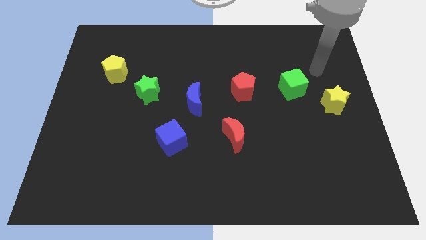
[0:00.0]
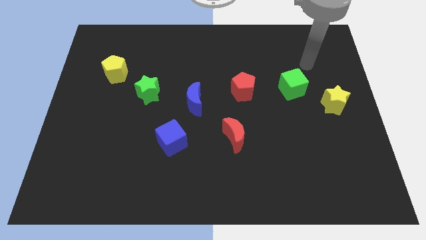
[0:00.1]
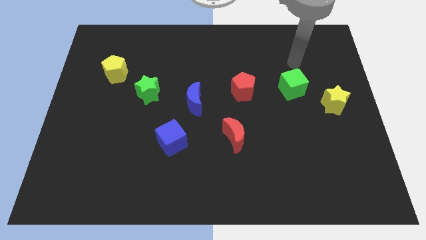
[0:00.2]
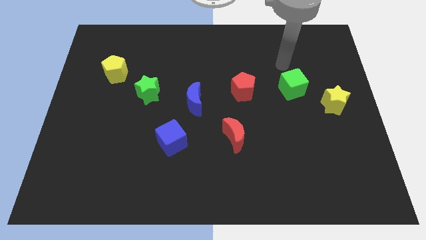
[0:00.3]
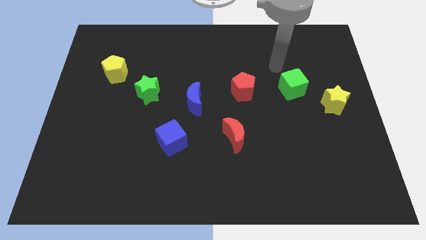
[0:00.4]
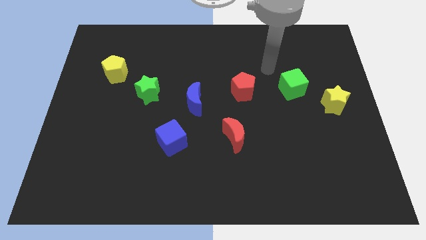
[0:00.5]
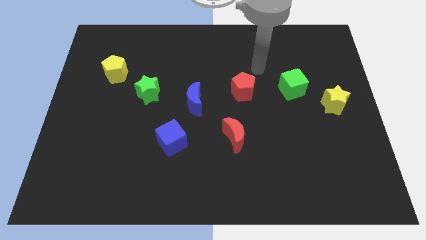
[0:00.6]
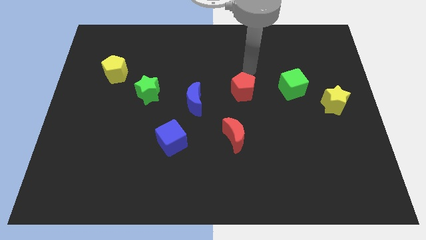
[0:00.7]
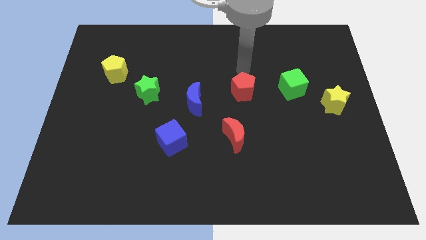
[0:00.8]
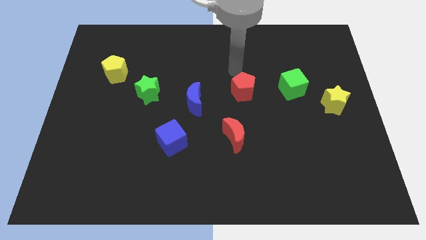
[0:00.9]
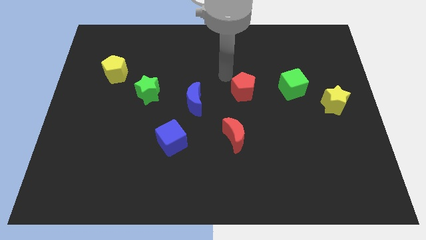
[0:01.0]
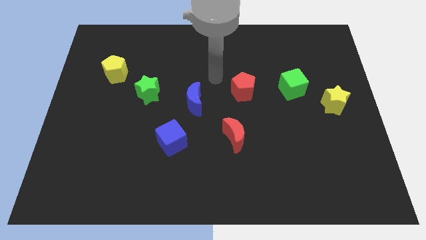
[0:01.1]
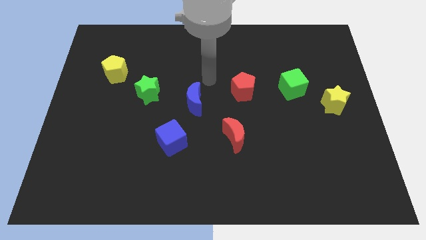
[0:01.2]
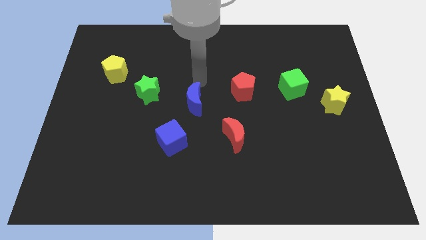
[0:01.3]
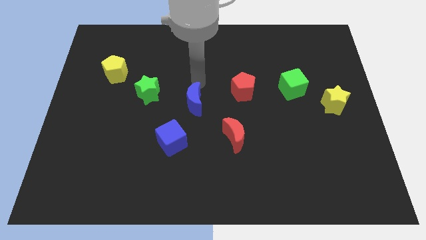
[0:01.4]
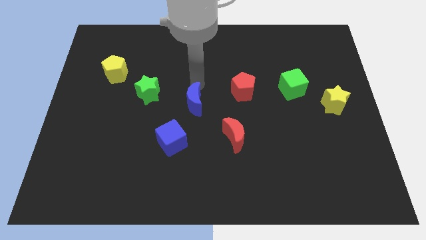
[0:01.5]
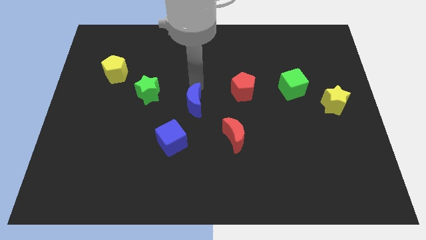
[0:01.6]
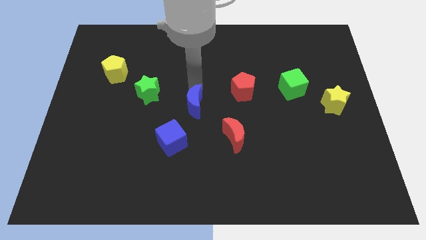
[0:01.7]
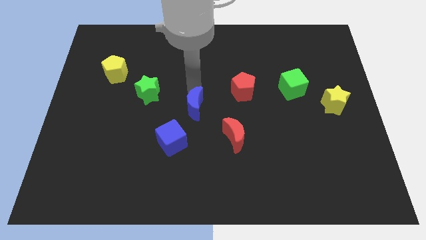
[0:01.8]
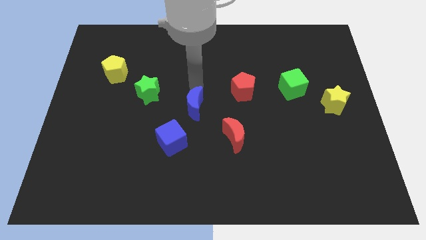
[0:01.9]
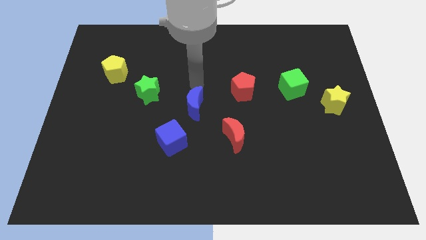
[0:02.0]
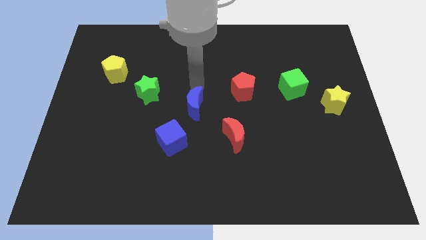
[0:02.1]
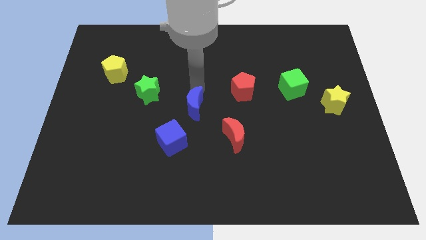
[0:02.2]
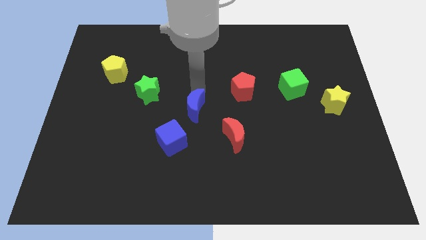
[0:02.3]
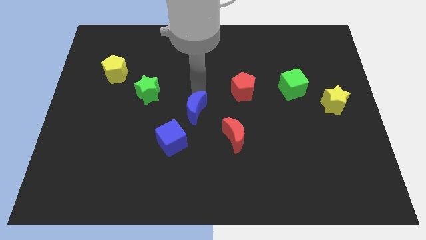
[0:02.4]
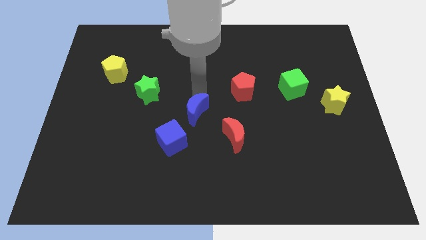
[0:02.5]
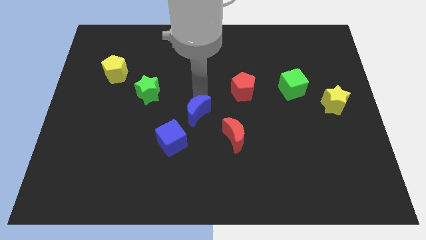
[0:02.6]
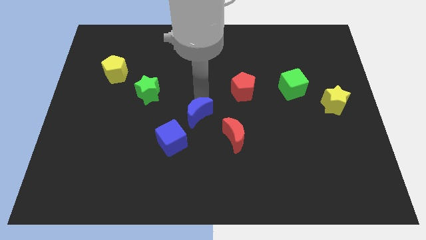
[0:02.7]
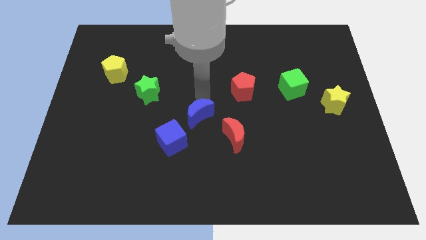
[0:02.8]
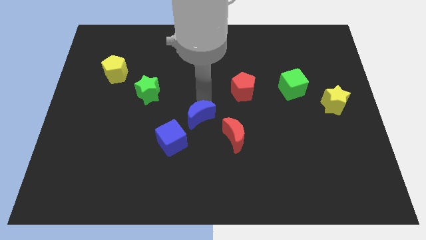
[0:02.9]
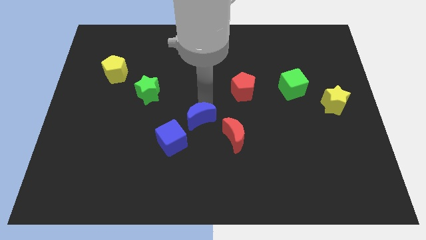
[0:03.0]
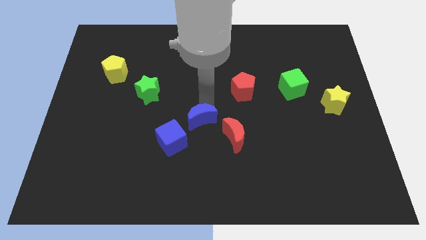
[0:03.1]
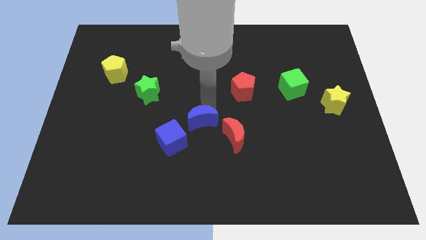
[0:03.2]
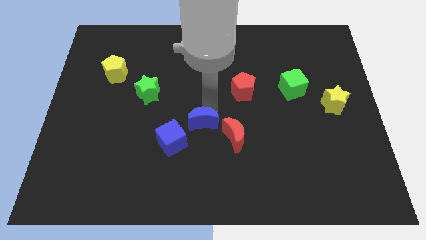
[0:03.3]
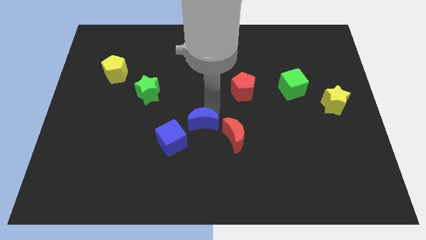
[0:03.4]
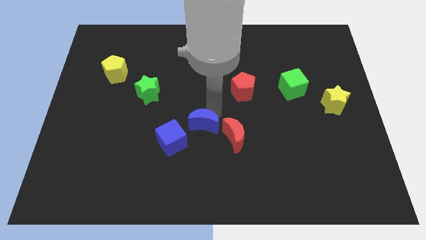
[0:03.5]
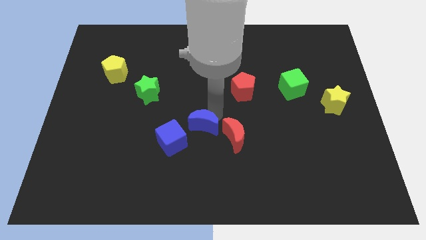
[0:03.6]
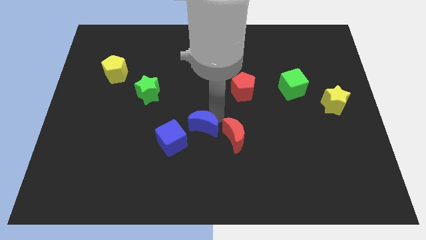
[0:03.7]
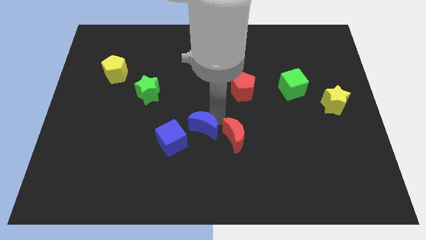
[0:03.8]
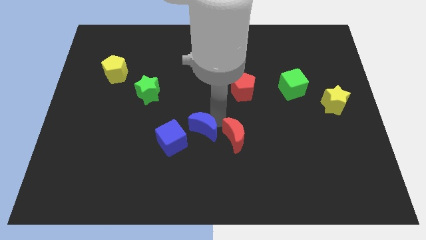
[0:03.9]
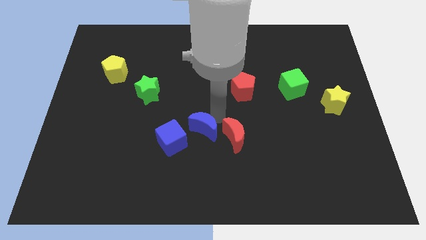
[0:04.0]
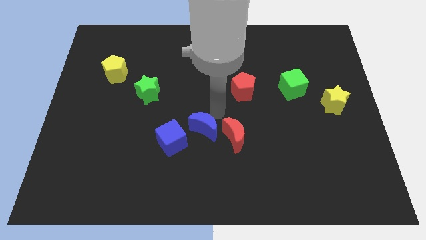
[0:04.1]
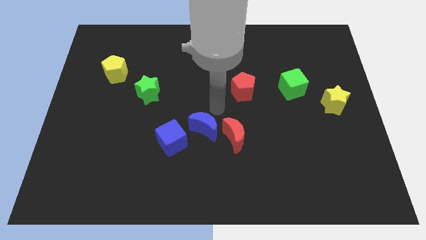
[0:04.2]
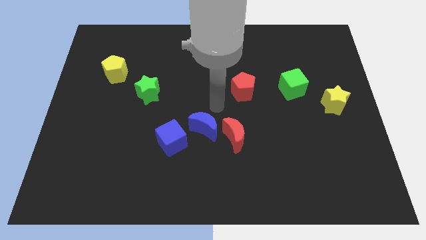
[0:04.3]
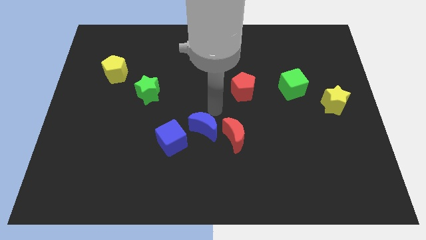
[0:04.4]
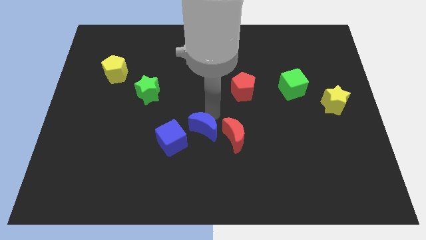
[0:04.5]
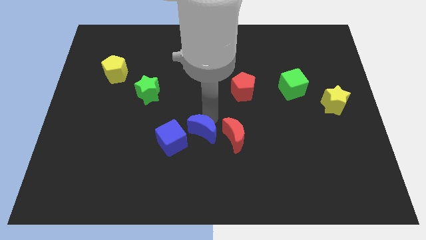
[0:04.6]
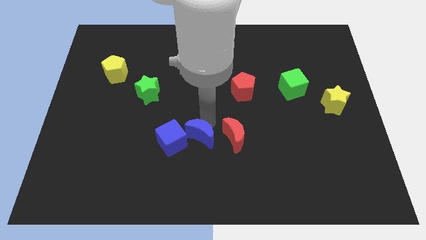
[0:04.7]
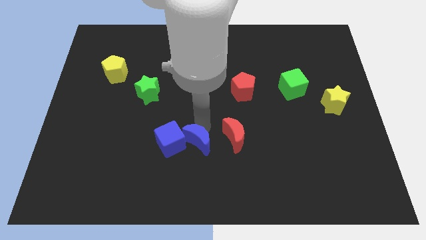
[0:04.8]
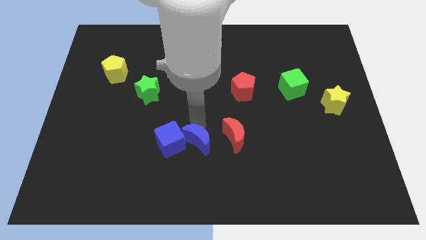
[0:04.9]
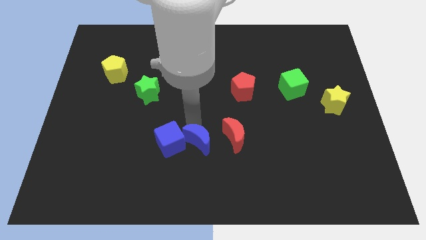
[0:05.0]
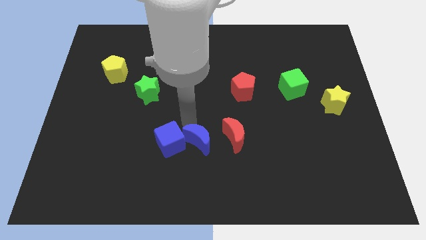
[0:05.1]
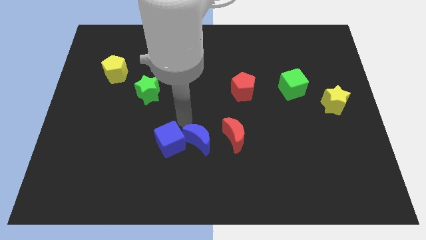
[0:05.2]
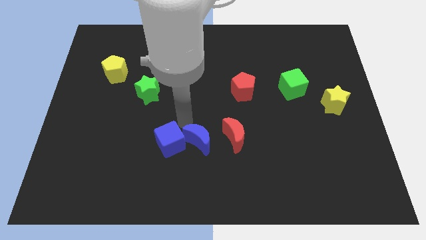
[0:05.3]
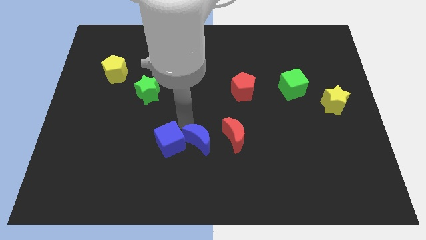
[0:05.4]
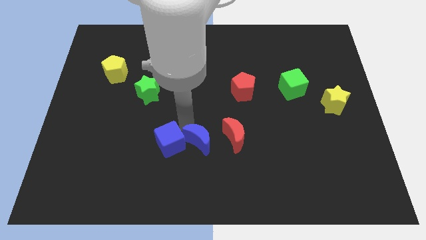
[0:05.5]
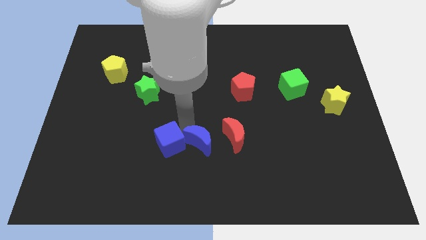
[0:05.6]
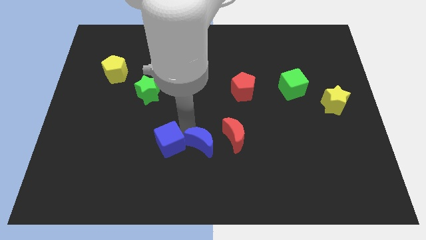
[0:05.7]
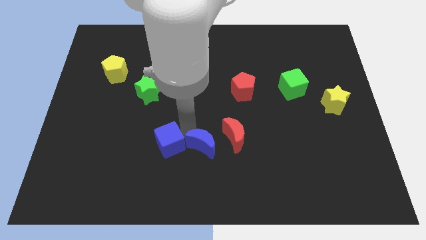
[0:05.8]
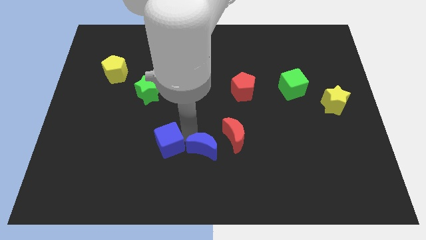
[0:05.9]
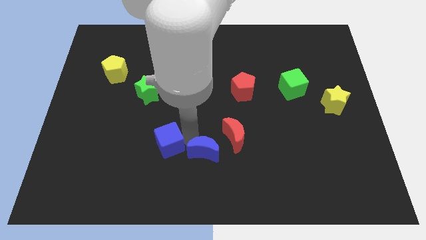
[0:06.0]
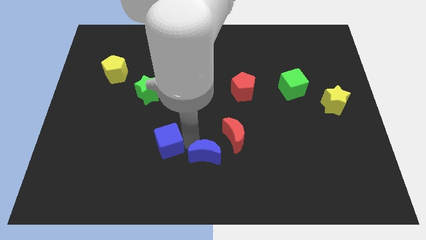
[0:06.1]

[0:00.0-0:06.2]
move the blue moon to the bottom

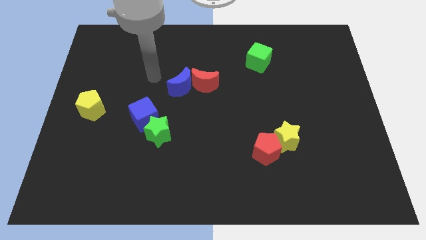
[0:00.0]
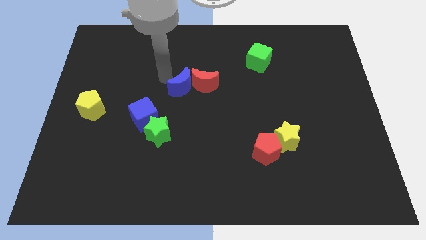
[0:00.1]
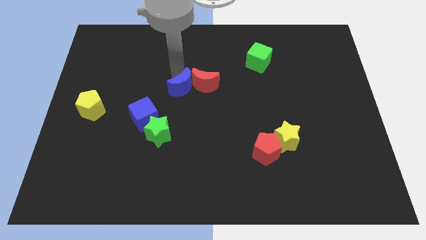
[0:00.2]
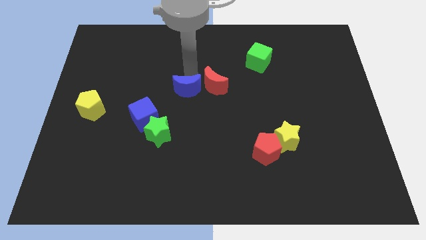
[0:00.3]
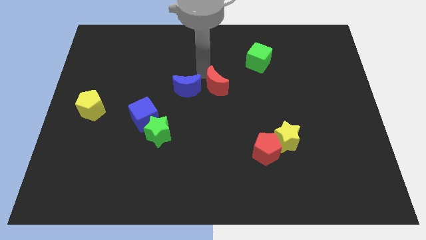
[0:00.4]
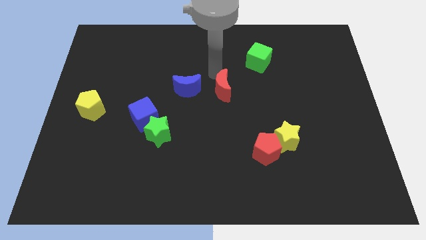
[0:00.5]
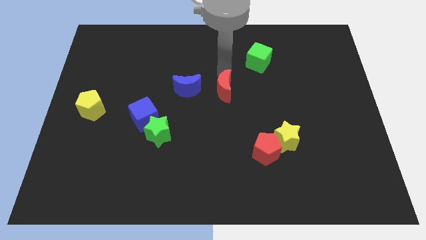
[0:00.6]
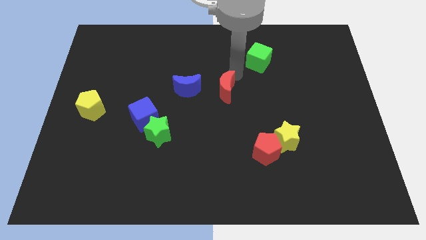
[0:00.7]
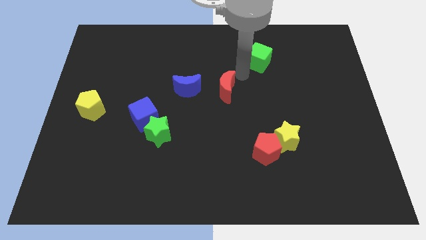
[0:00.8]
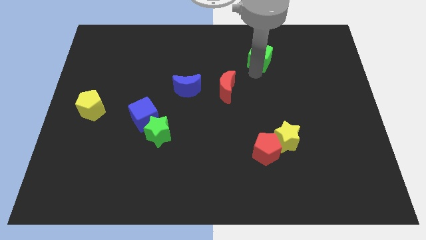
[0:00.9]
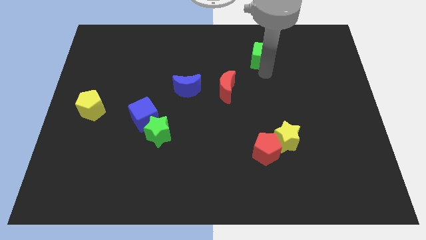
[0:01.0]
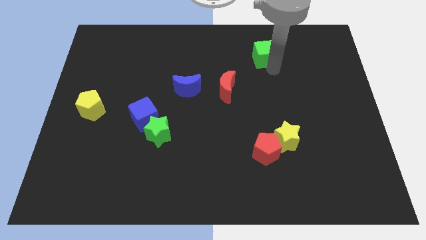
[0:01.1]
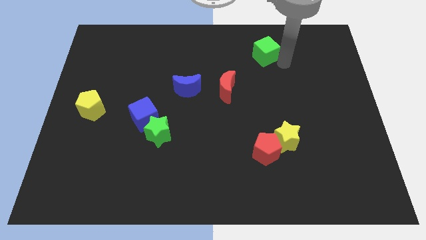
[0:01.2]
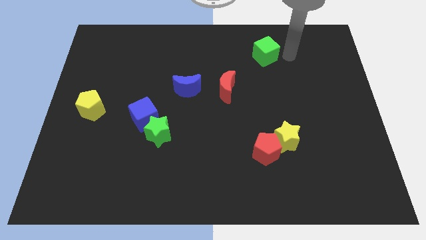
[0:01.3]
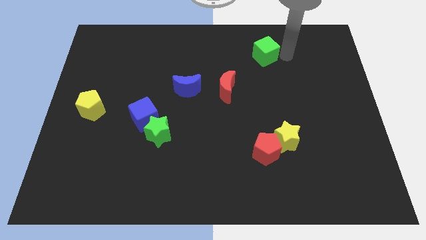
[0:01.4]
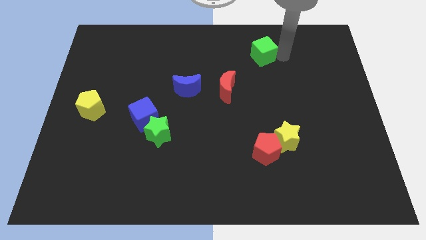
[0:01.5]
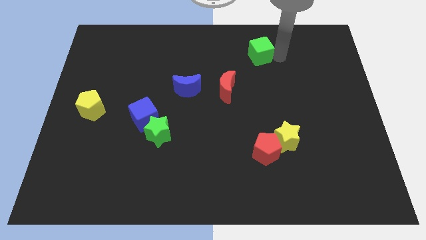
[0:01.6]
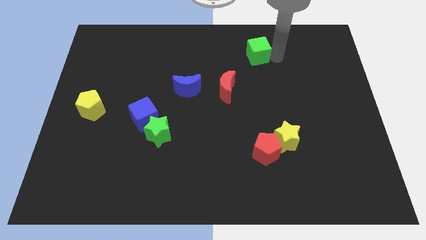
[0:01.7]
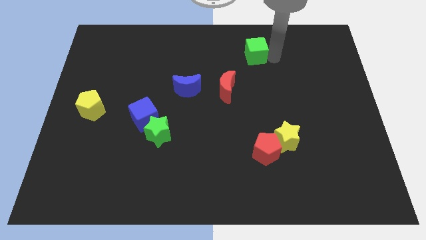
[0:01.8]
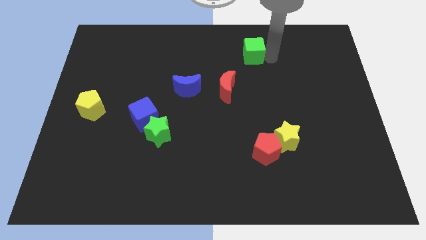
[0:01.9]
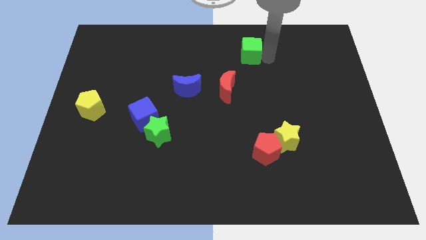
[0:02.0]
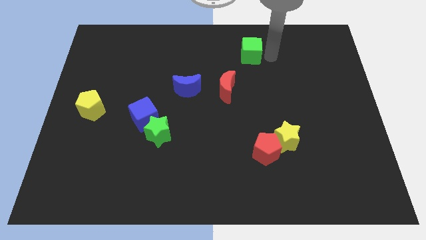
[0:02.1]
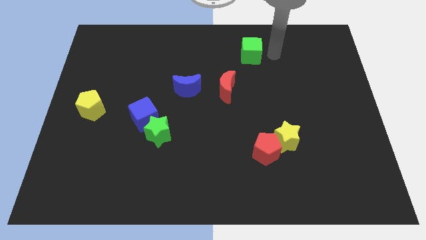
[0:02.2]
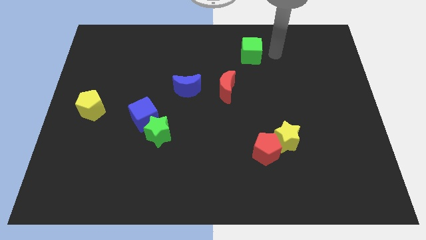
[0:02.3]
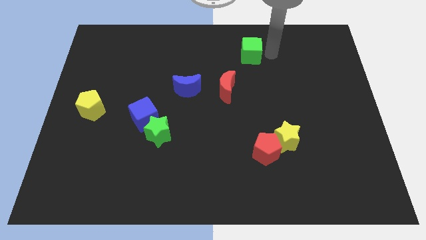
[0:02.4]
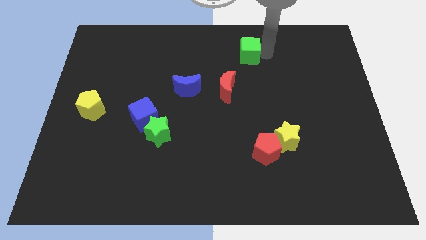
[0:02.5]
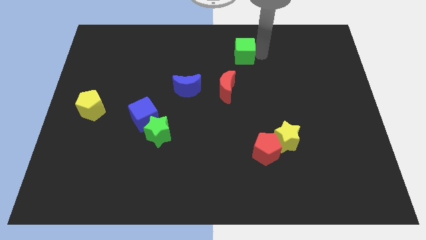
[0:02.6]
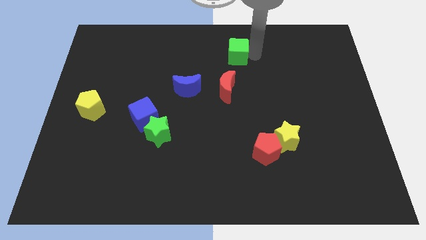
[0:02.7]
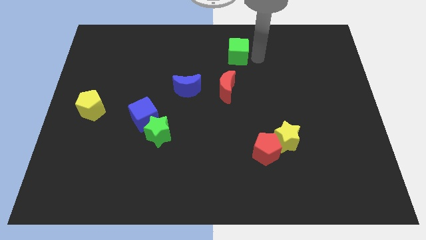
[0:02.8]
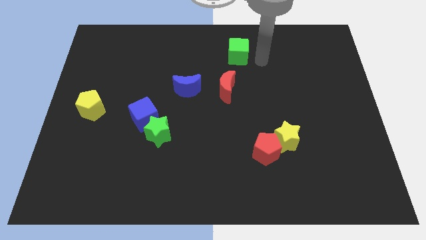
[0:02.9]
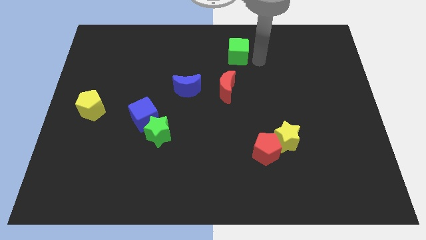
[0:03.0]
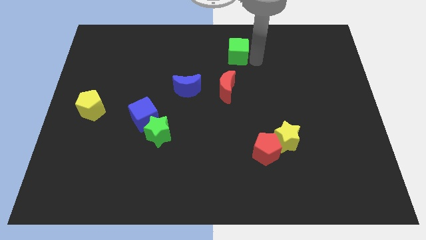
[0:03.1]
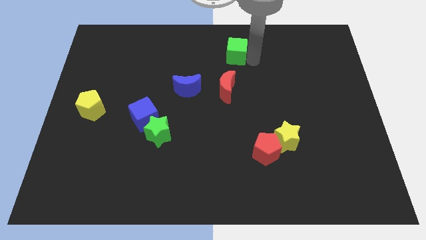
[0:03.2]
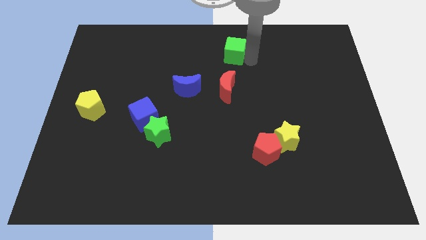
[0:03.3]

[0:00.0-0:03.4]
put the green cube to the towards your base
